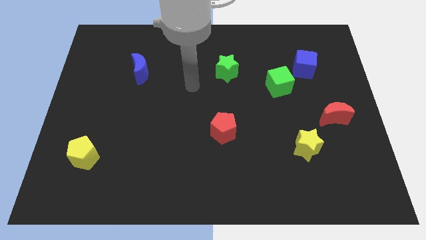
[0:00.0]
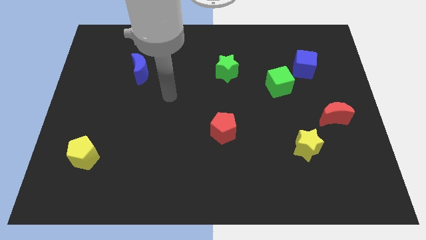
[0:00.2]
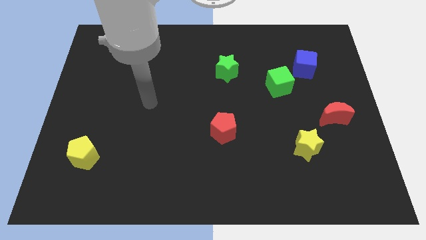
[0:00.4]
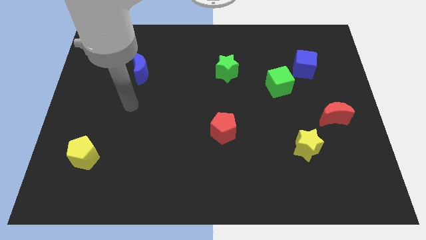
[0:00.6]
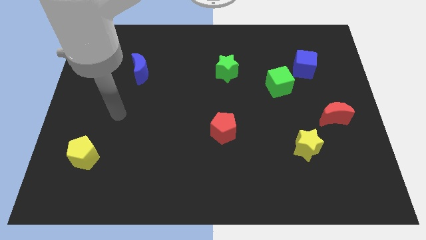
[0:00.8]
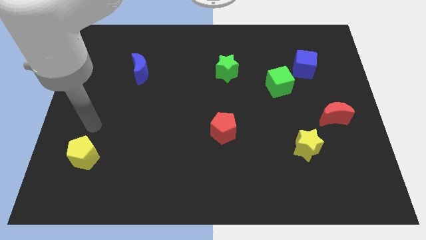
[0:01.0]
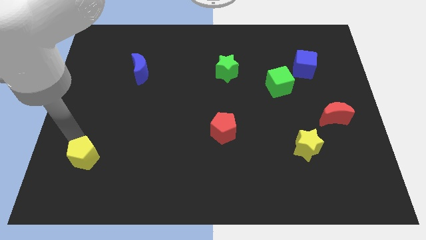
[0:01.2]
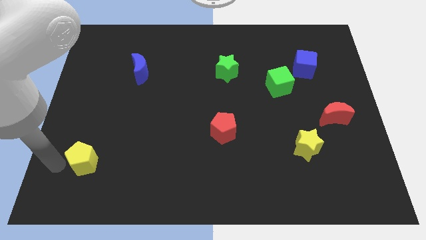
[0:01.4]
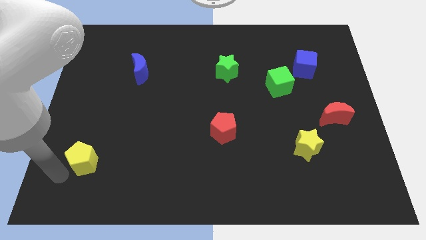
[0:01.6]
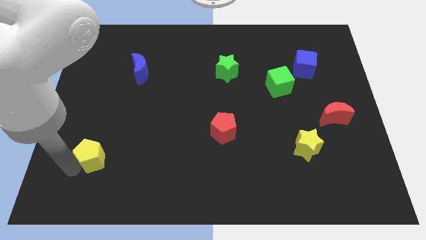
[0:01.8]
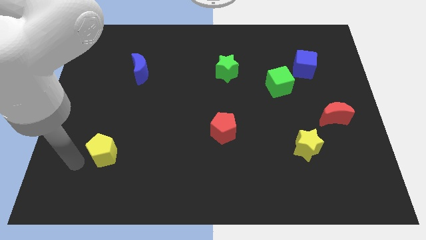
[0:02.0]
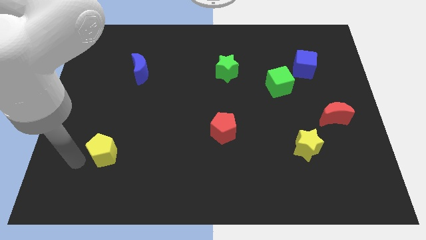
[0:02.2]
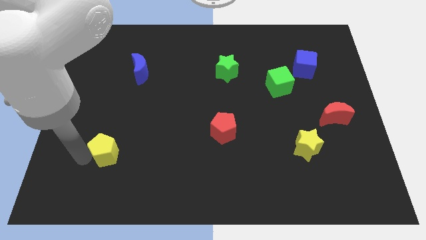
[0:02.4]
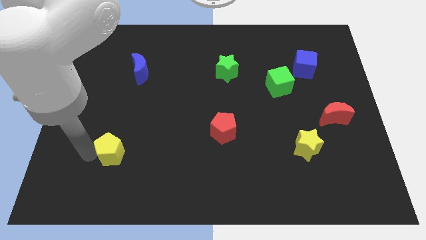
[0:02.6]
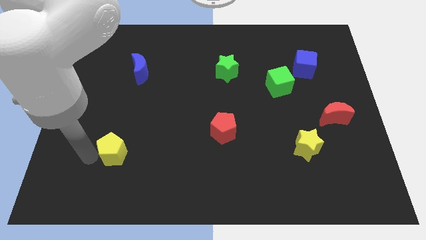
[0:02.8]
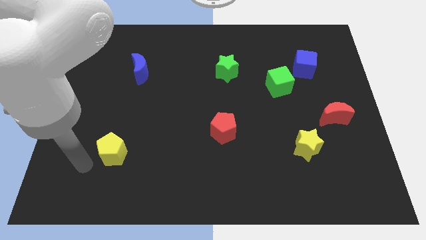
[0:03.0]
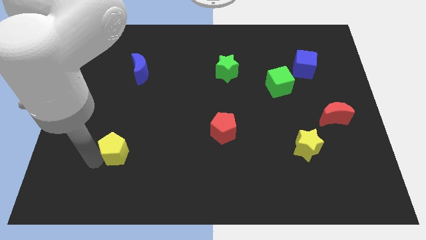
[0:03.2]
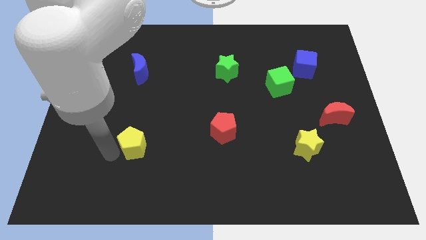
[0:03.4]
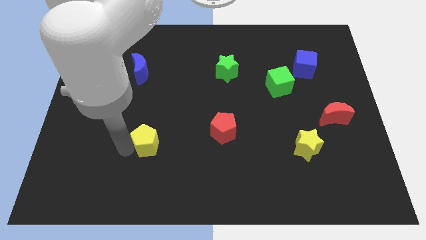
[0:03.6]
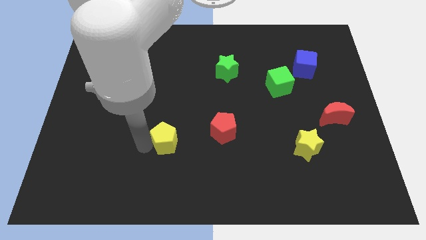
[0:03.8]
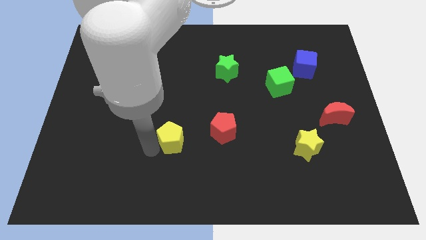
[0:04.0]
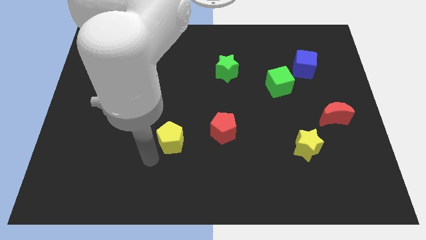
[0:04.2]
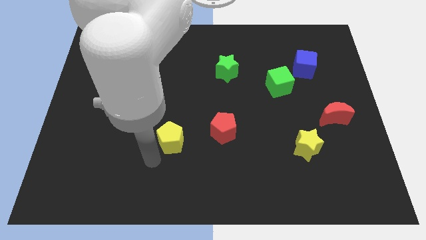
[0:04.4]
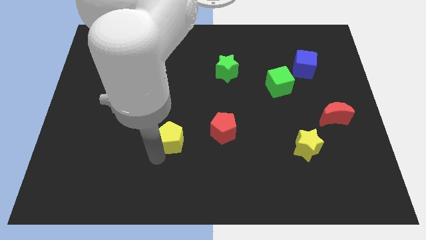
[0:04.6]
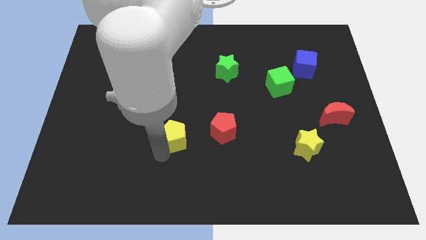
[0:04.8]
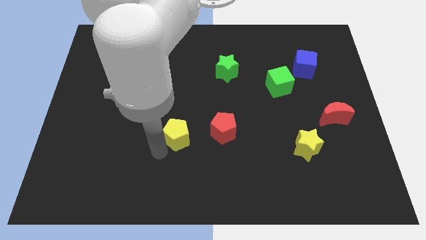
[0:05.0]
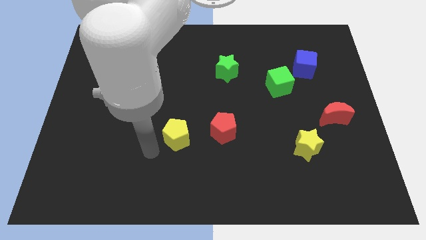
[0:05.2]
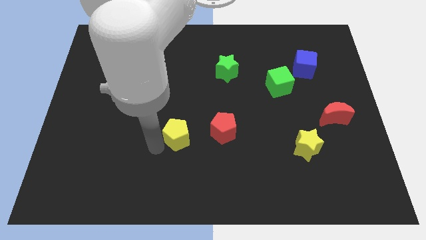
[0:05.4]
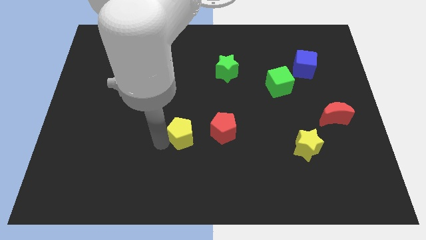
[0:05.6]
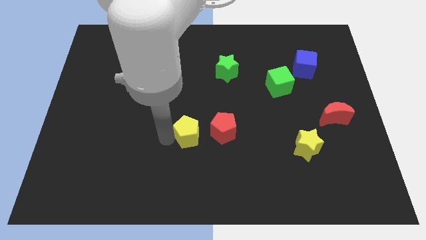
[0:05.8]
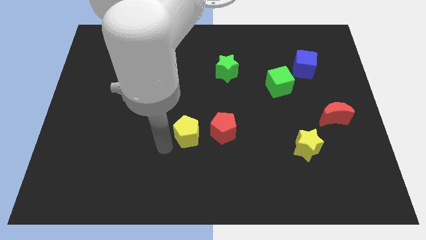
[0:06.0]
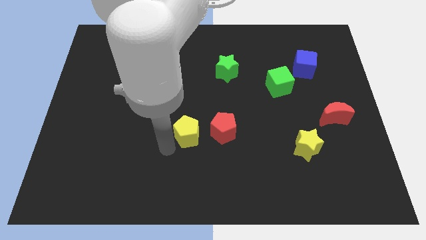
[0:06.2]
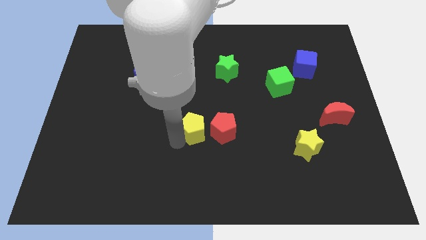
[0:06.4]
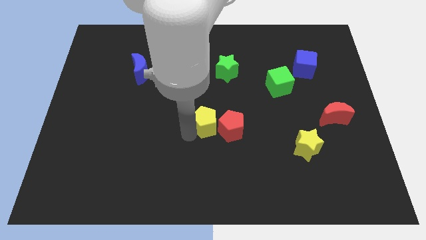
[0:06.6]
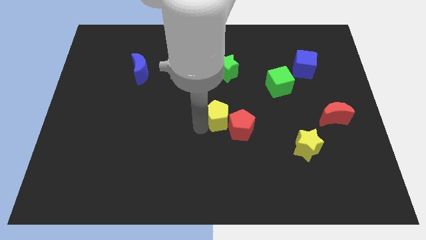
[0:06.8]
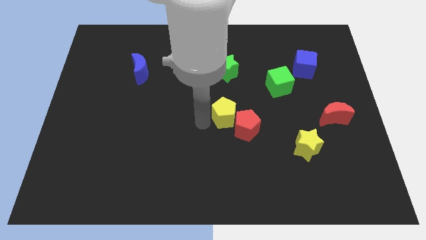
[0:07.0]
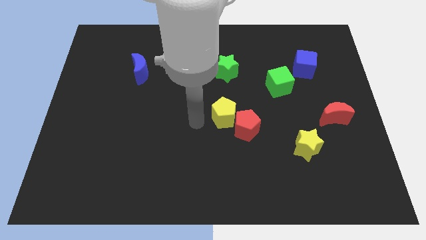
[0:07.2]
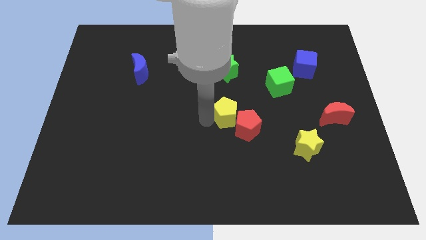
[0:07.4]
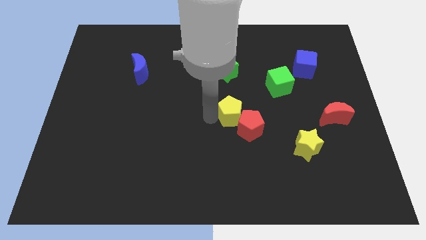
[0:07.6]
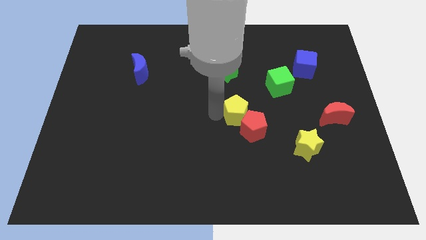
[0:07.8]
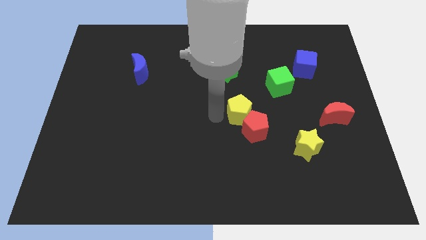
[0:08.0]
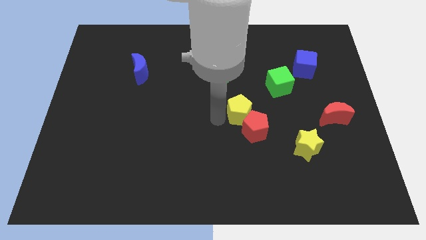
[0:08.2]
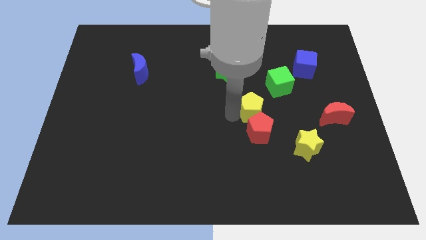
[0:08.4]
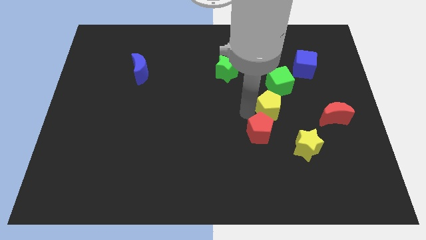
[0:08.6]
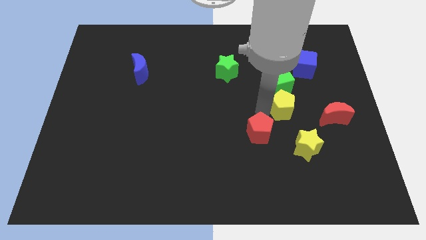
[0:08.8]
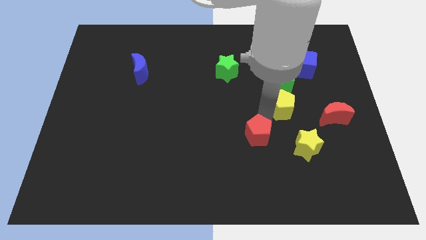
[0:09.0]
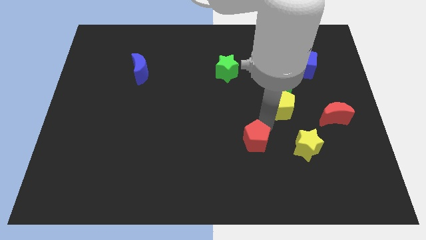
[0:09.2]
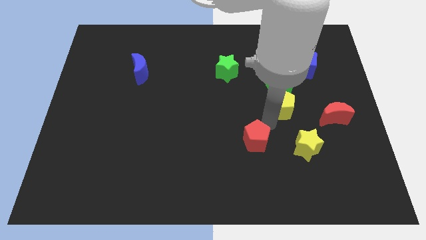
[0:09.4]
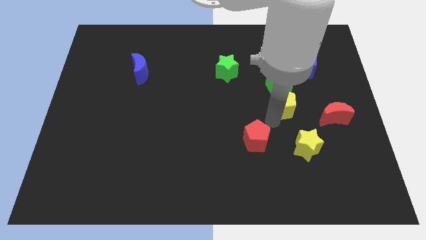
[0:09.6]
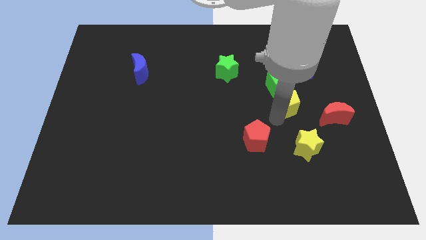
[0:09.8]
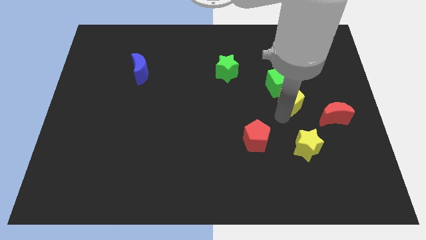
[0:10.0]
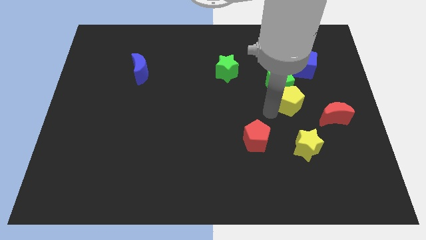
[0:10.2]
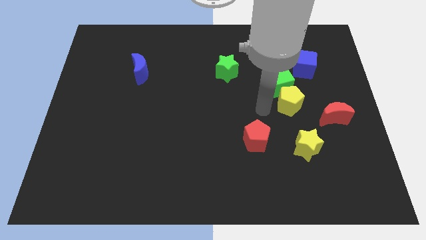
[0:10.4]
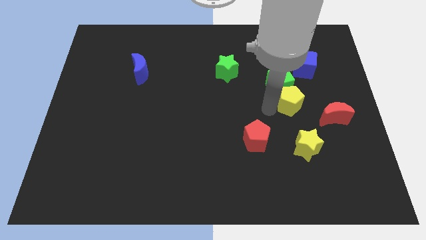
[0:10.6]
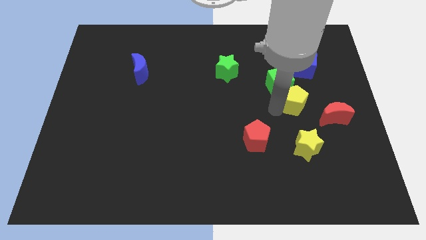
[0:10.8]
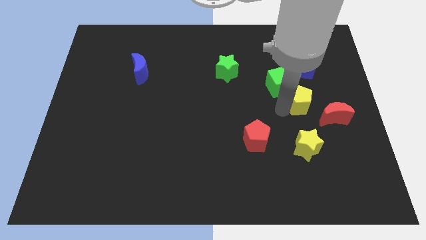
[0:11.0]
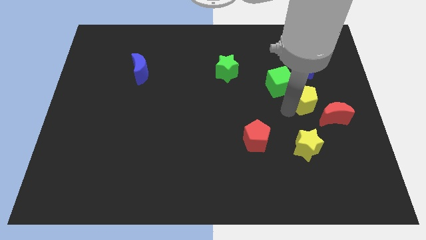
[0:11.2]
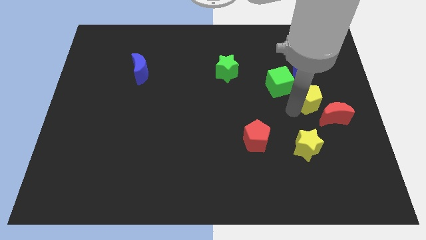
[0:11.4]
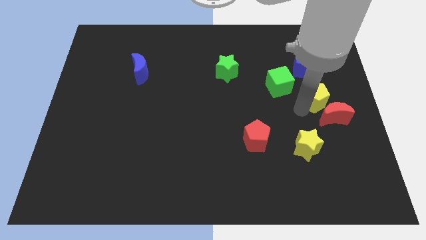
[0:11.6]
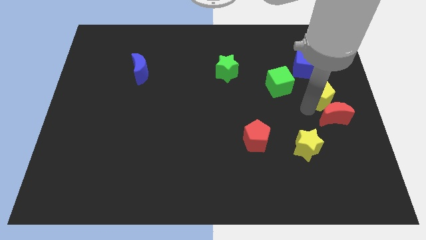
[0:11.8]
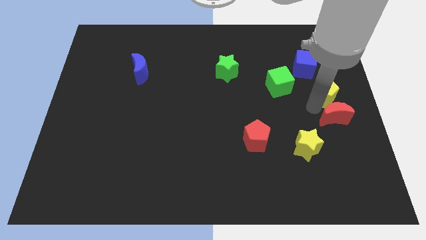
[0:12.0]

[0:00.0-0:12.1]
put the yellow pentagon diagonally down and to the right of the blue cube

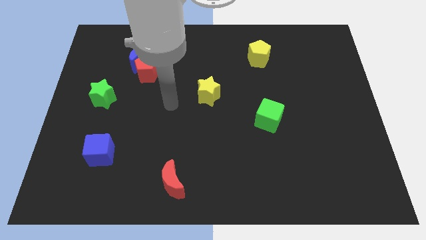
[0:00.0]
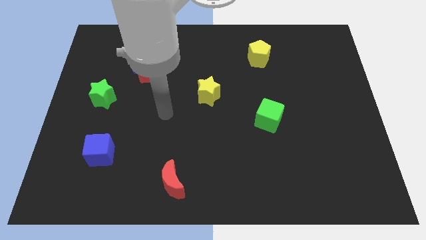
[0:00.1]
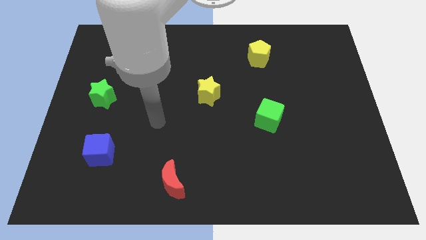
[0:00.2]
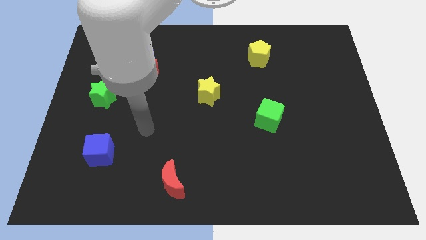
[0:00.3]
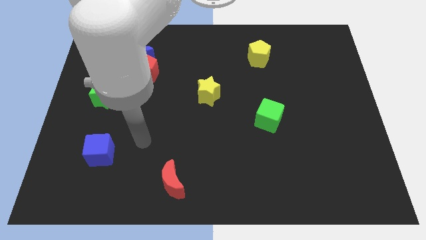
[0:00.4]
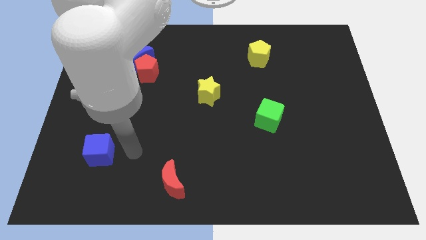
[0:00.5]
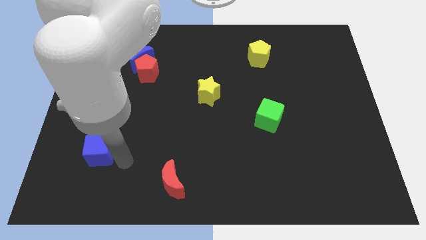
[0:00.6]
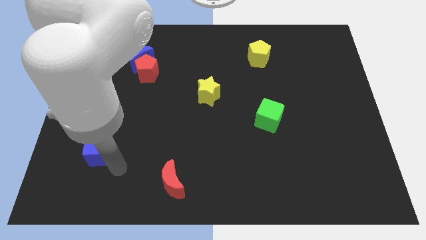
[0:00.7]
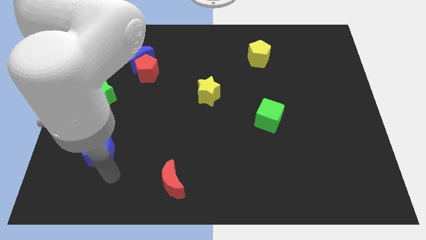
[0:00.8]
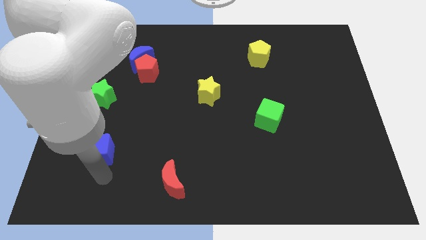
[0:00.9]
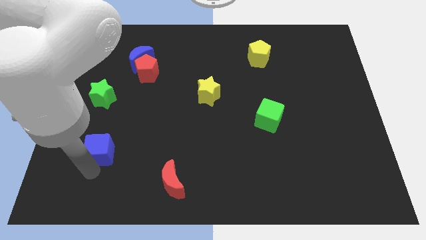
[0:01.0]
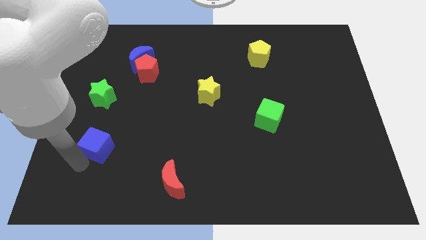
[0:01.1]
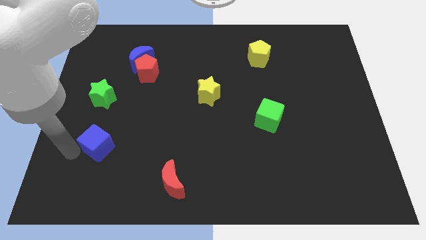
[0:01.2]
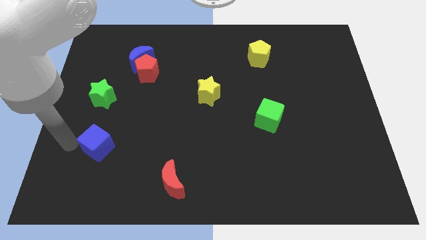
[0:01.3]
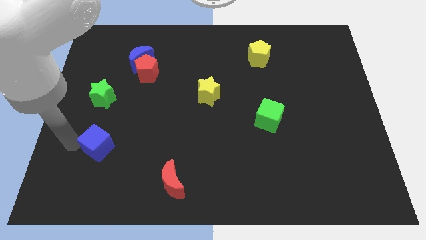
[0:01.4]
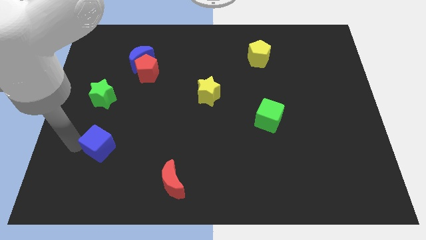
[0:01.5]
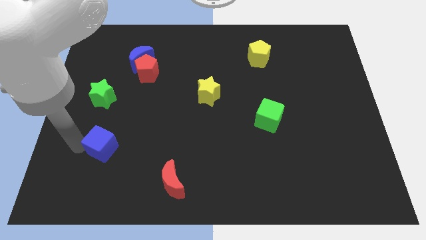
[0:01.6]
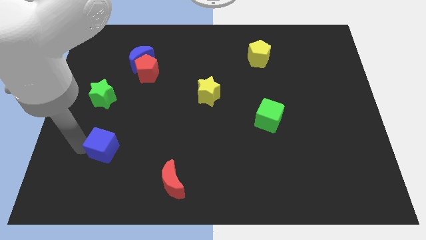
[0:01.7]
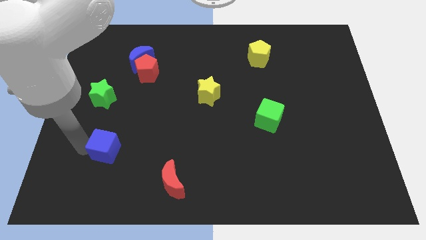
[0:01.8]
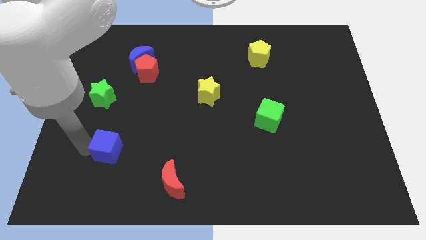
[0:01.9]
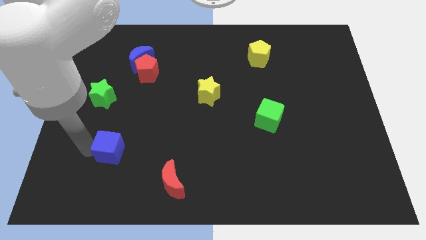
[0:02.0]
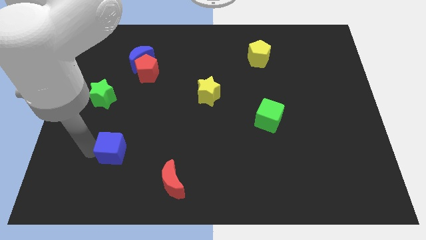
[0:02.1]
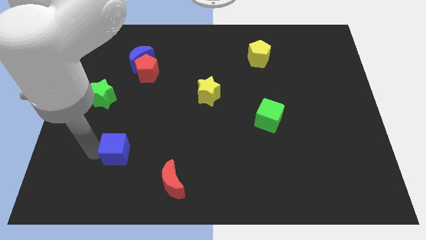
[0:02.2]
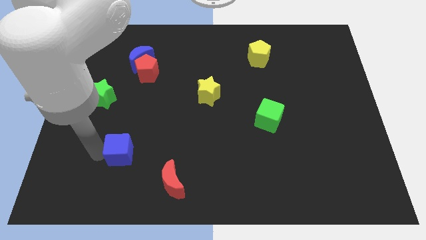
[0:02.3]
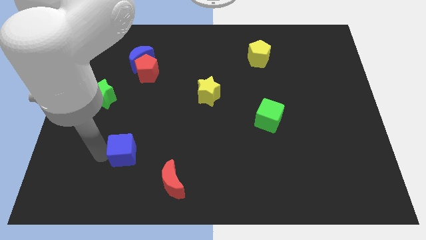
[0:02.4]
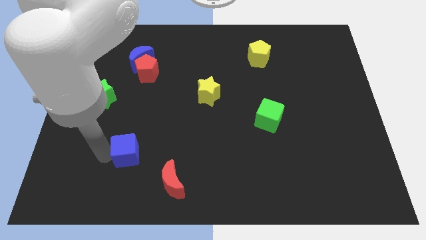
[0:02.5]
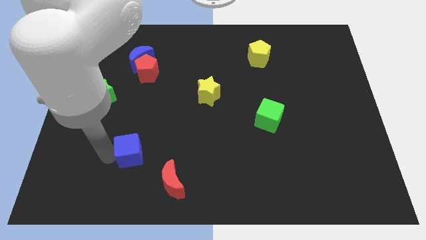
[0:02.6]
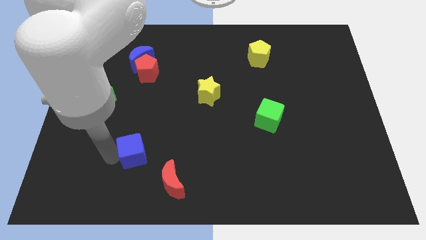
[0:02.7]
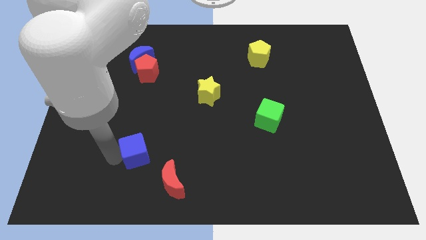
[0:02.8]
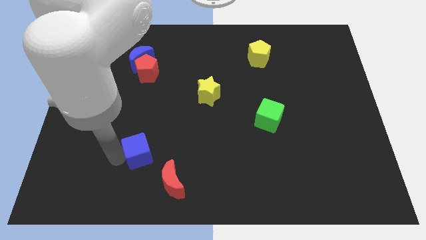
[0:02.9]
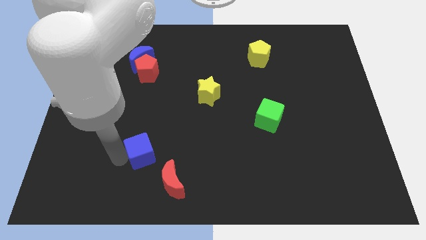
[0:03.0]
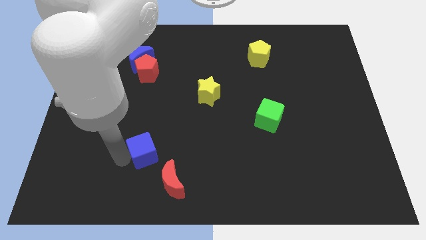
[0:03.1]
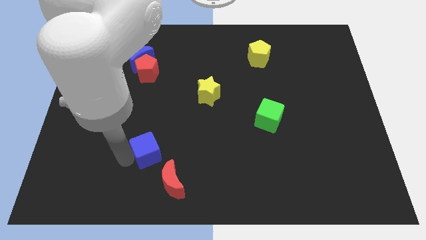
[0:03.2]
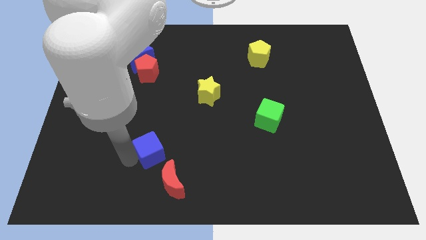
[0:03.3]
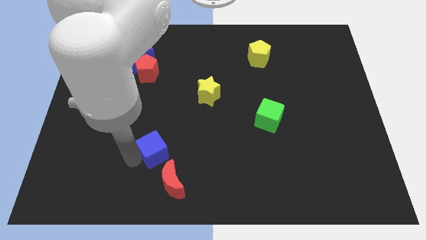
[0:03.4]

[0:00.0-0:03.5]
move the blue cube to the top side of the red moon
